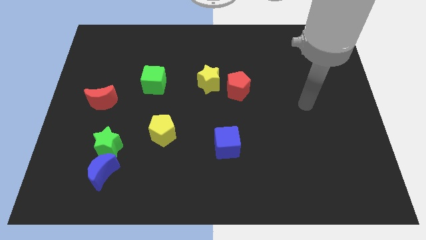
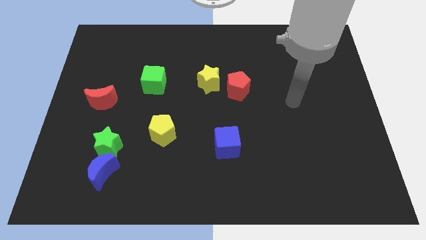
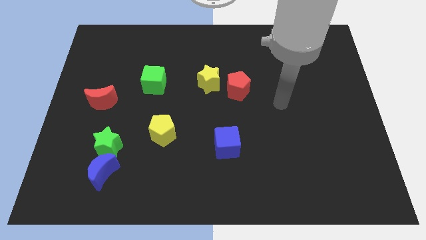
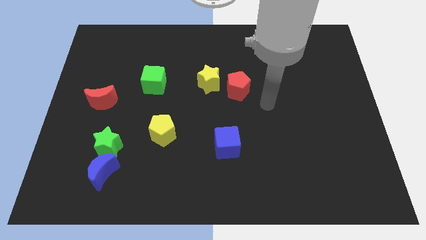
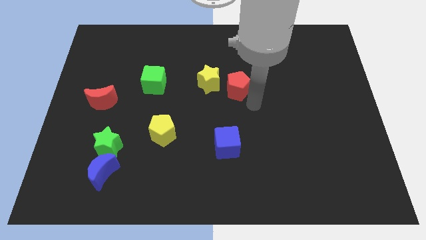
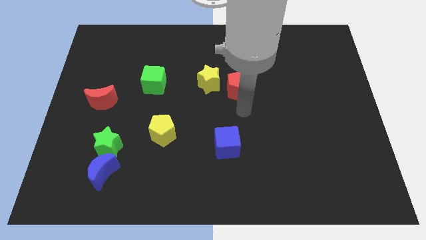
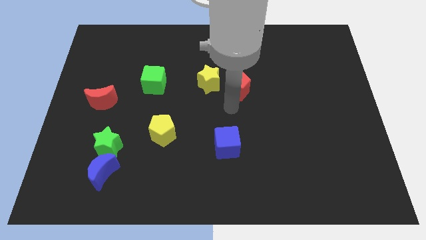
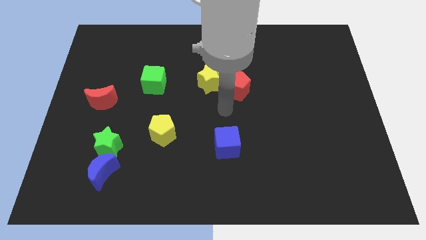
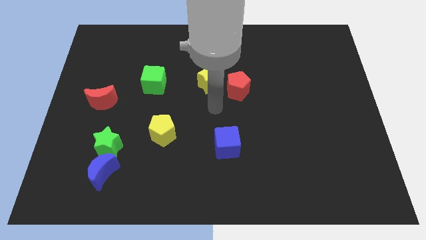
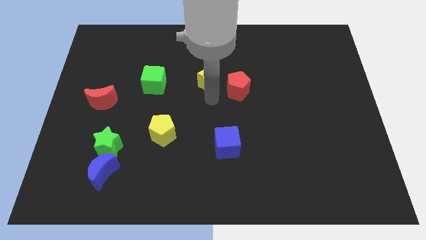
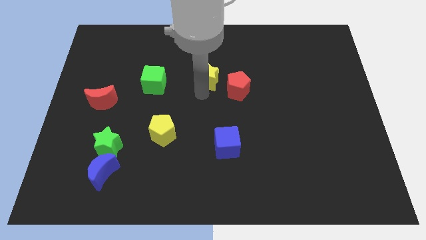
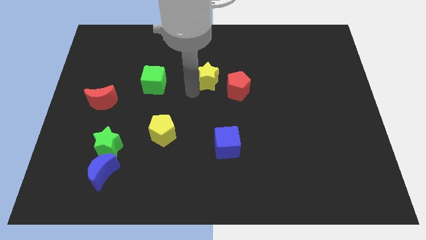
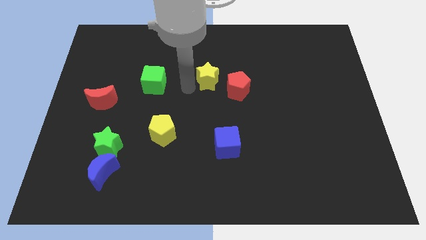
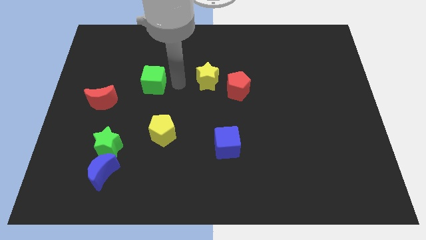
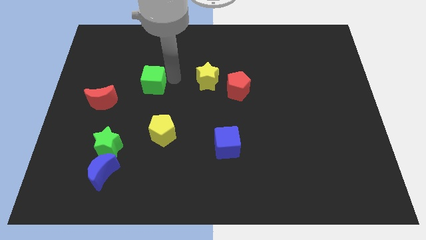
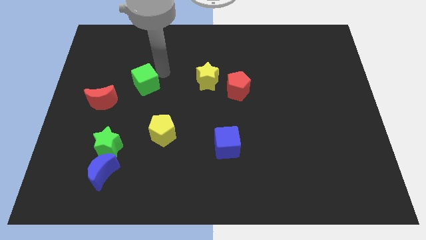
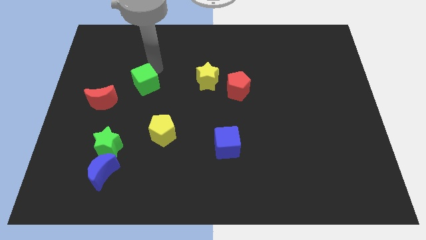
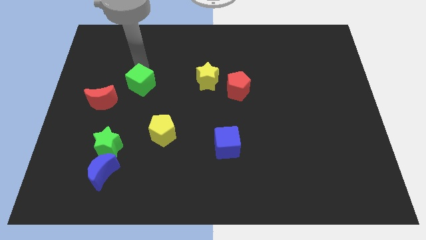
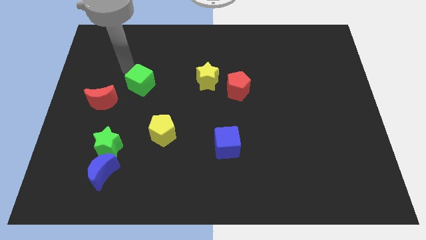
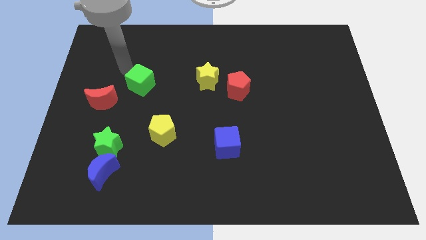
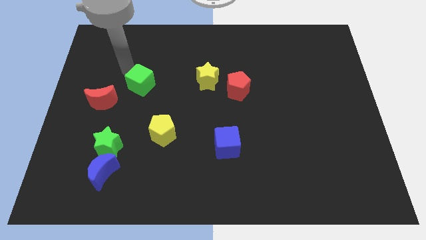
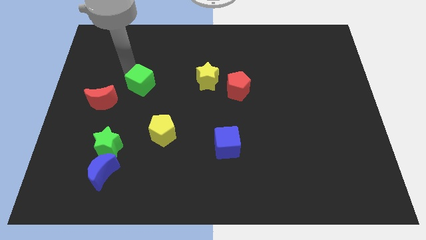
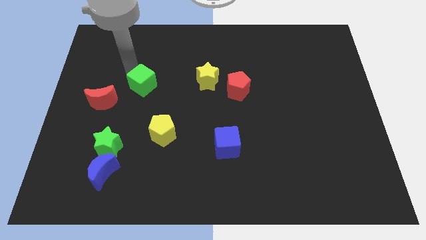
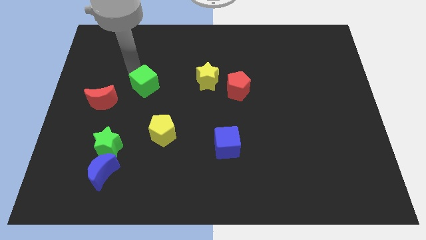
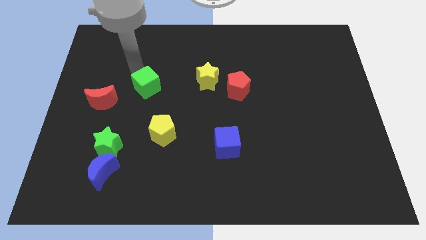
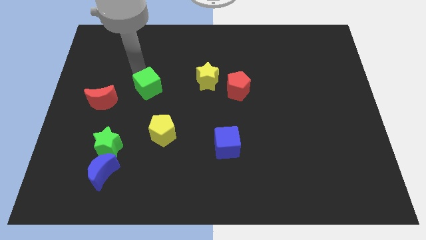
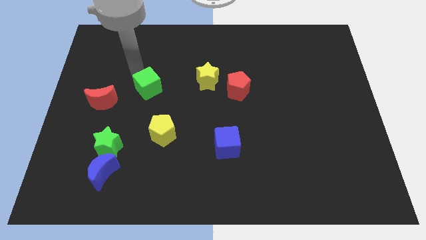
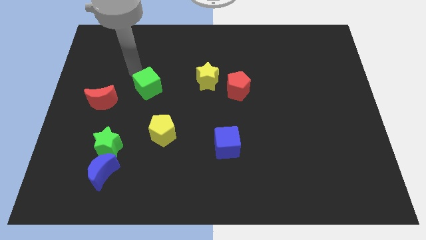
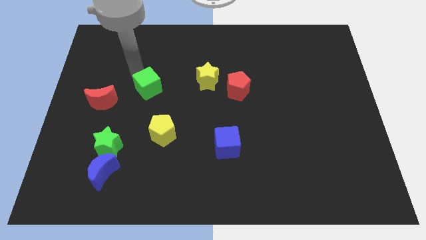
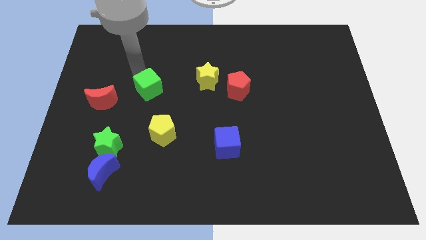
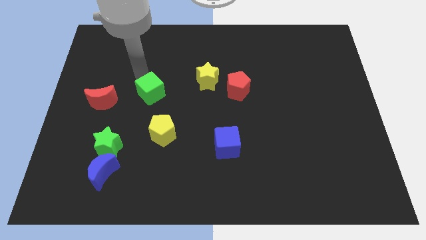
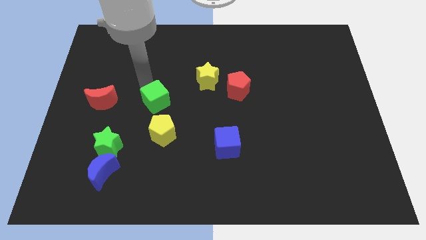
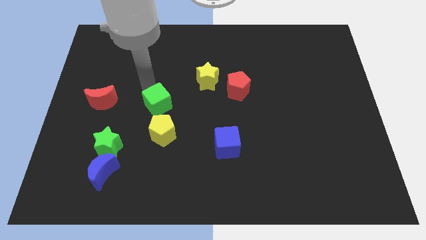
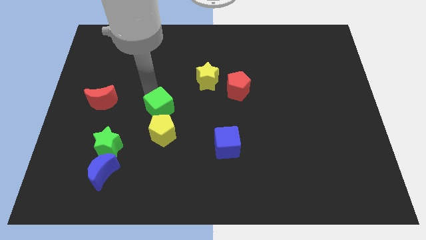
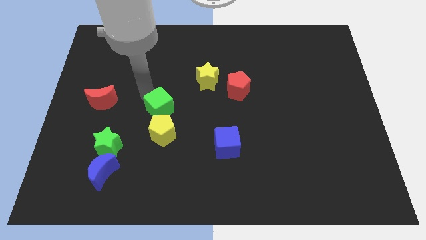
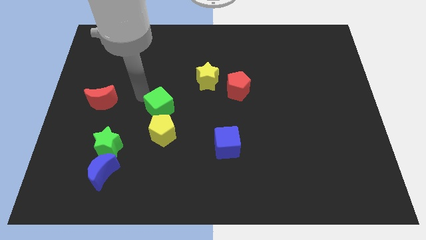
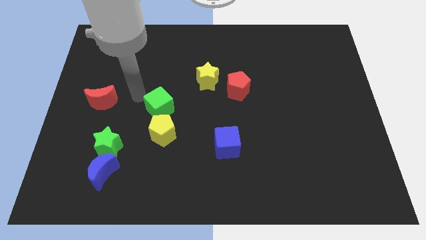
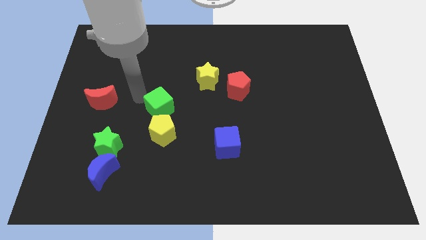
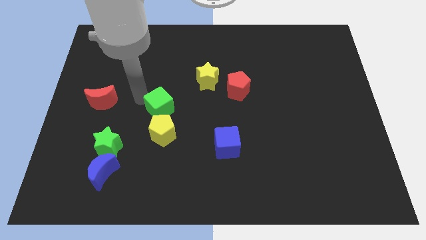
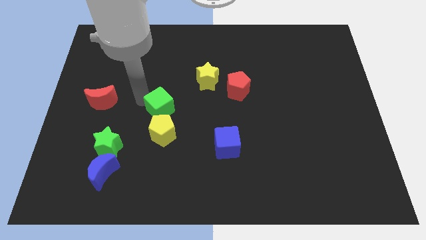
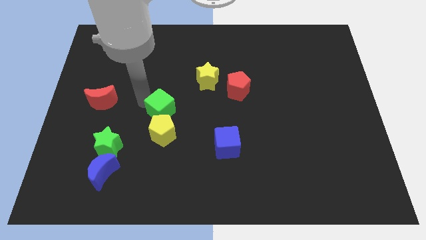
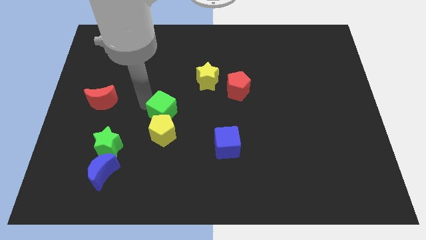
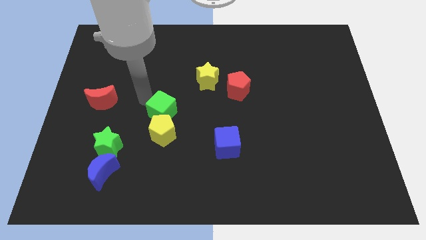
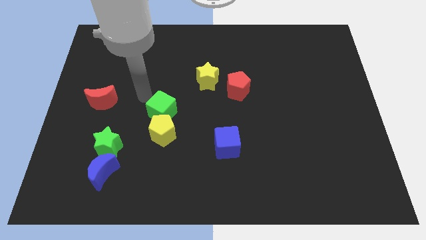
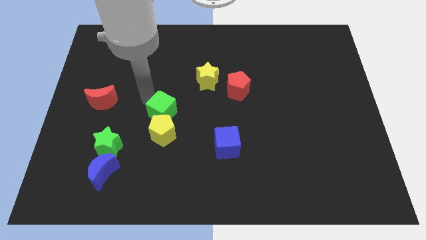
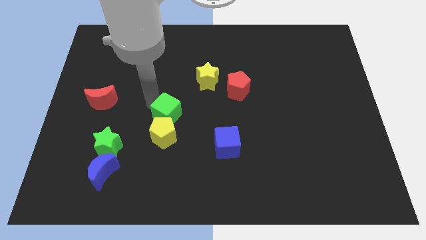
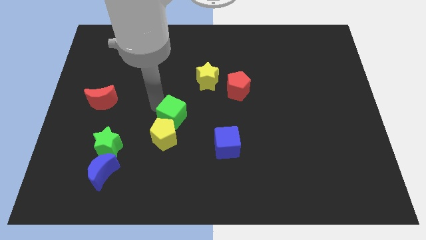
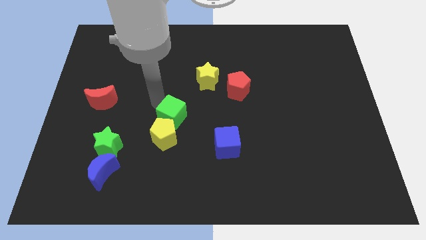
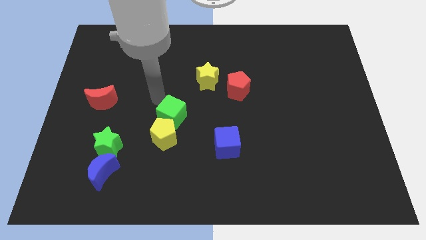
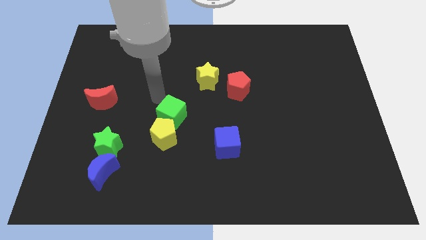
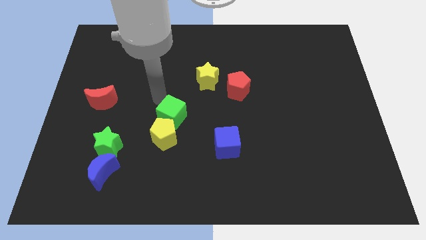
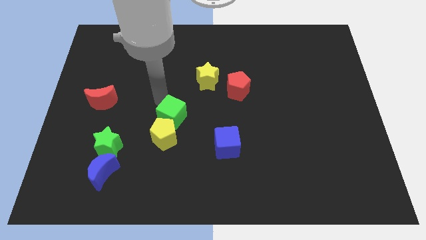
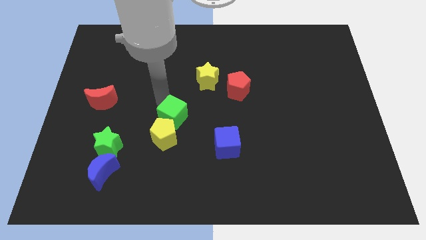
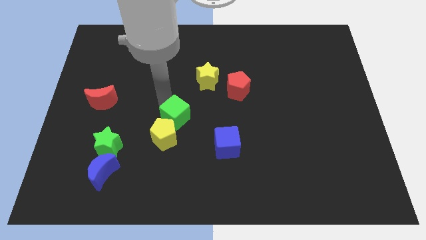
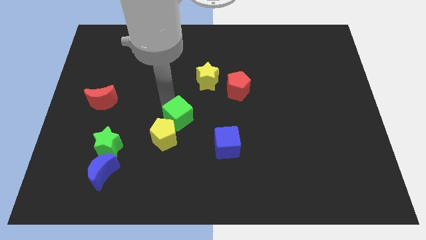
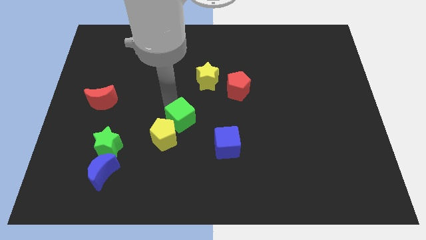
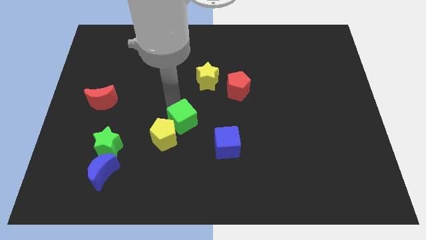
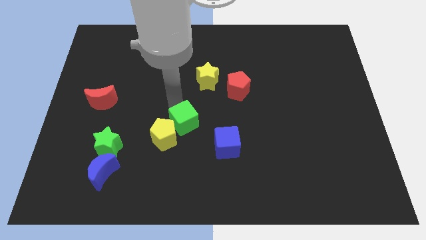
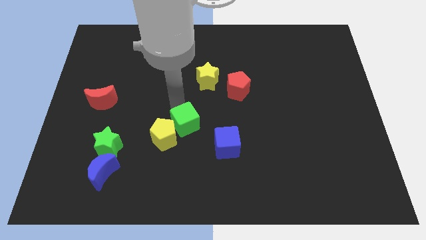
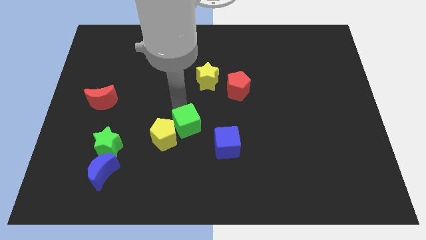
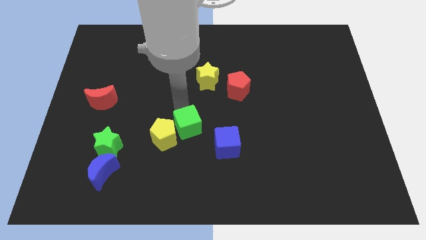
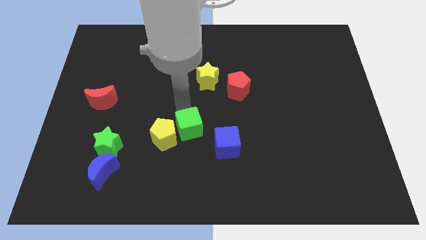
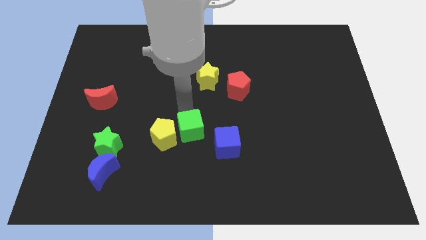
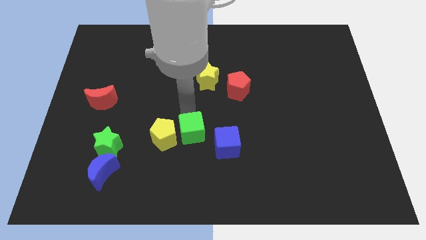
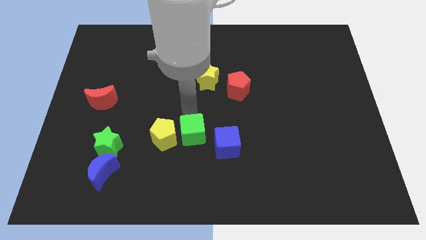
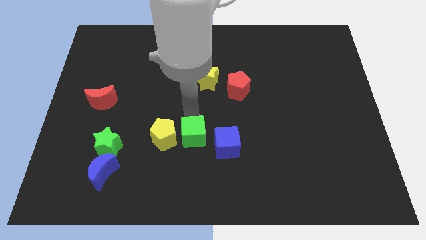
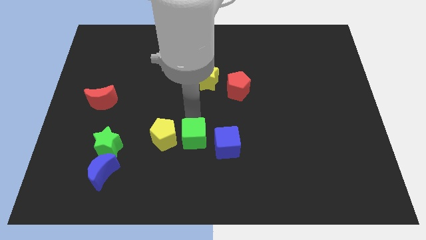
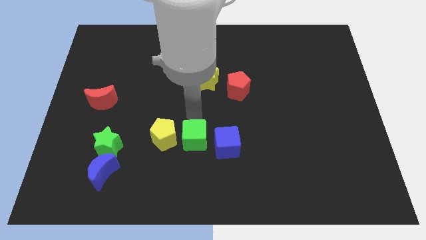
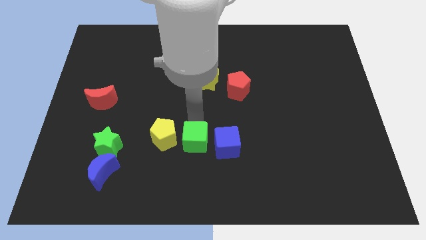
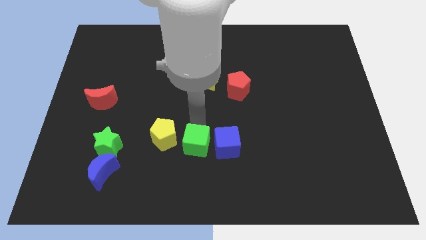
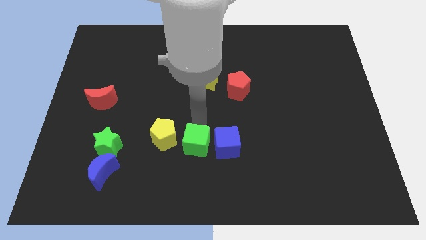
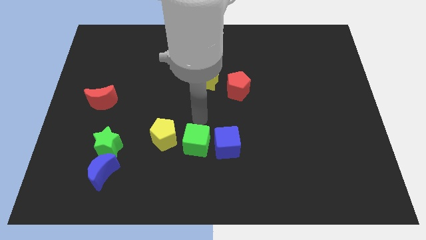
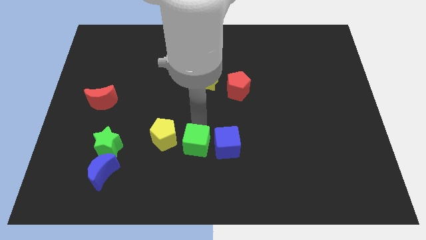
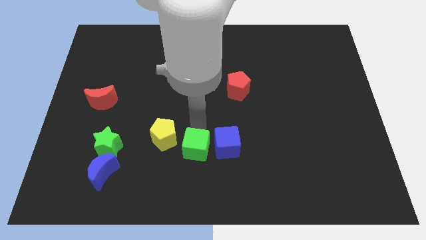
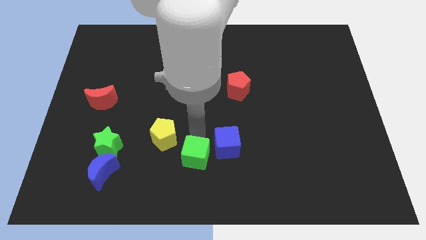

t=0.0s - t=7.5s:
slide the green cube to the bottom side
